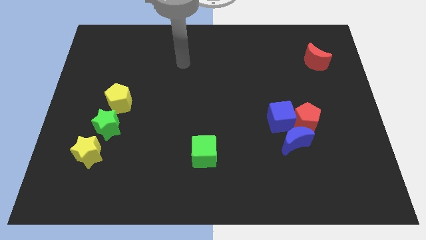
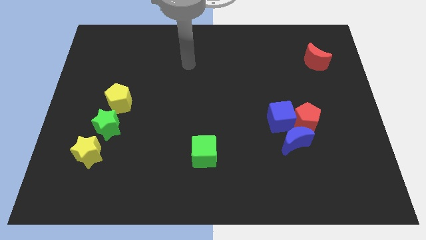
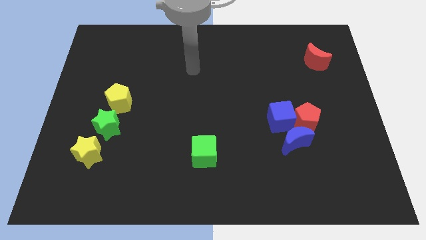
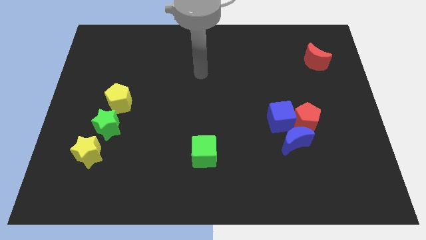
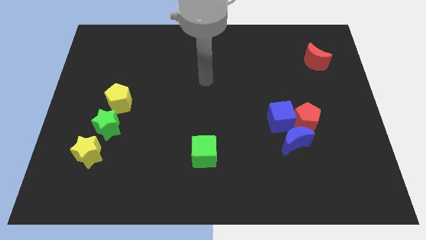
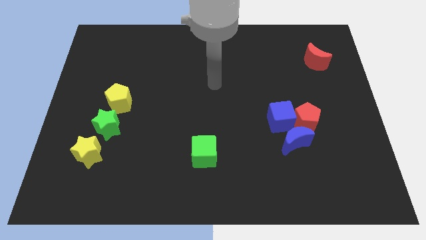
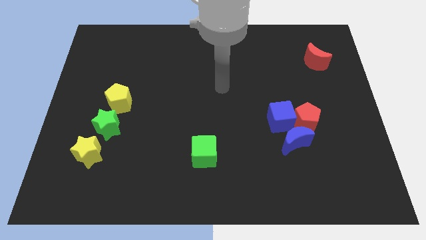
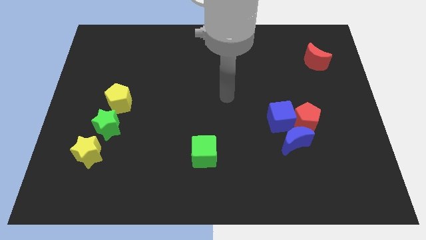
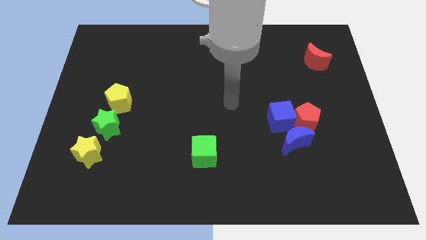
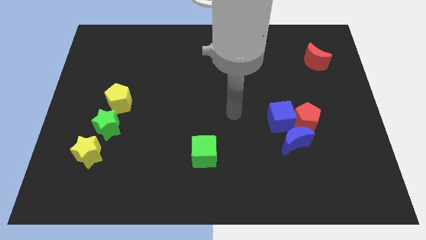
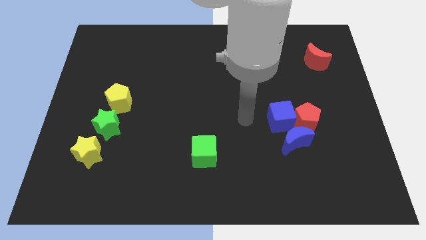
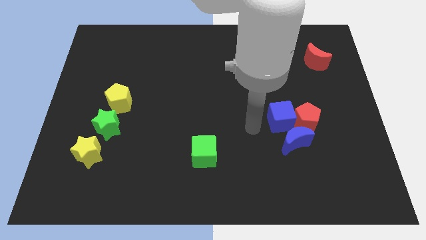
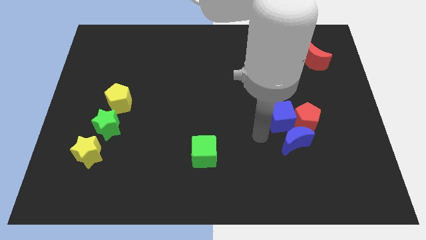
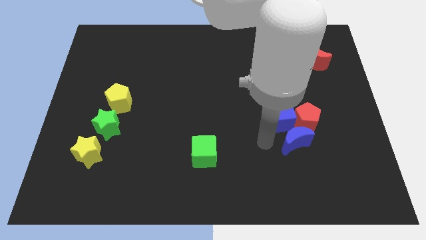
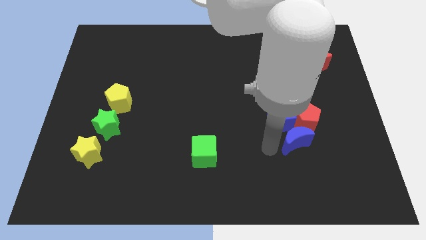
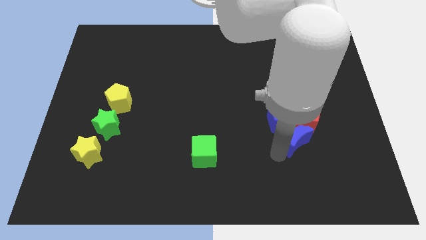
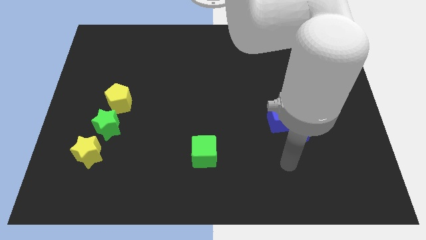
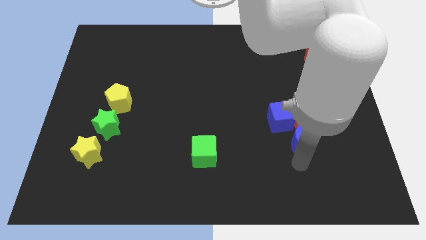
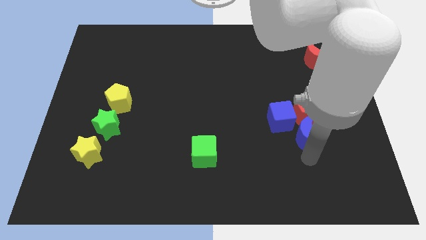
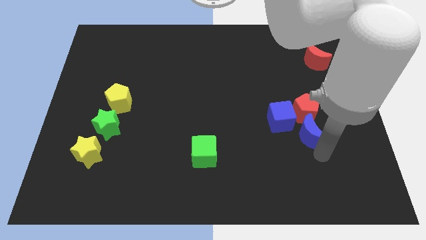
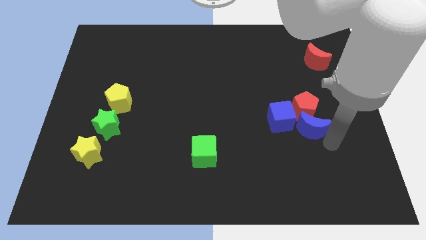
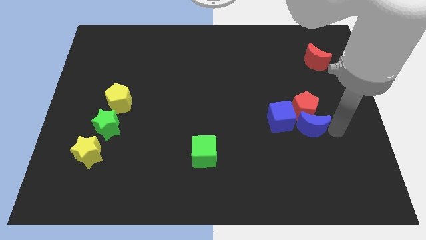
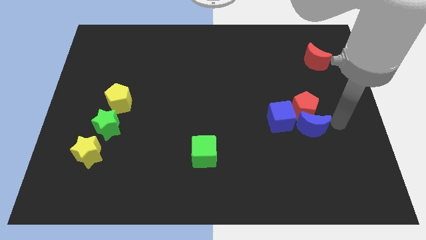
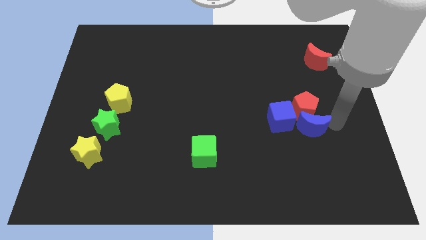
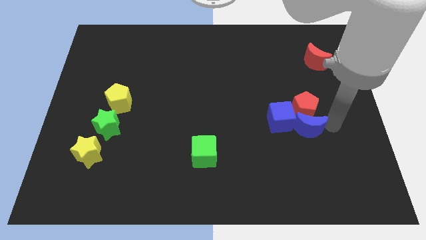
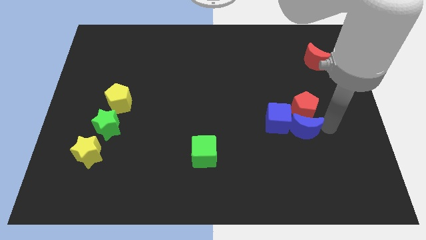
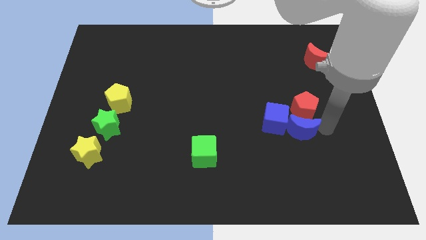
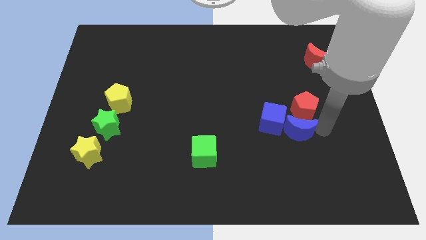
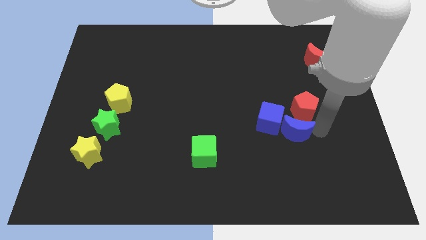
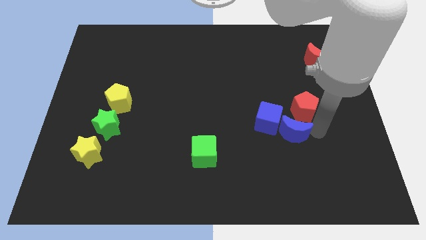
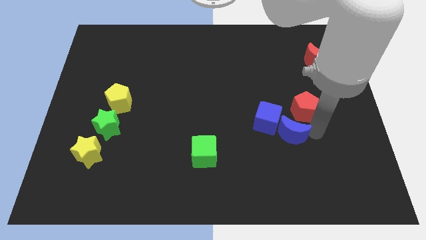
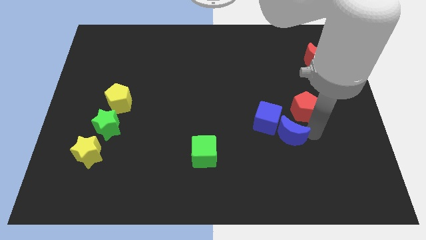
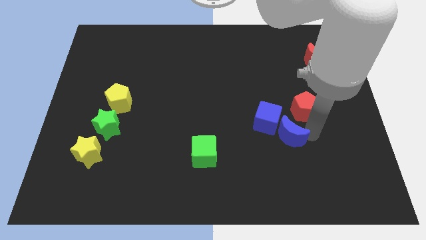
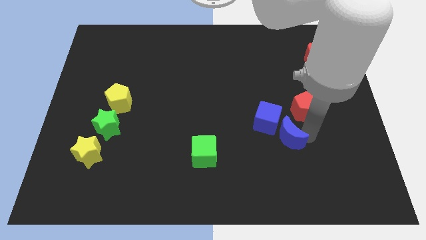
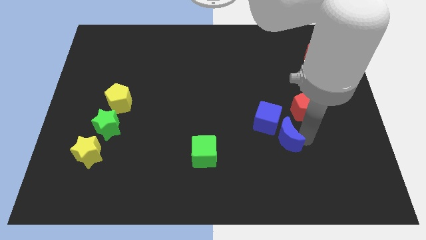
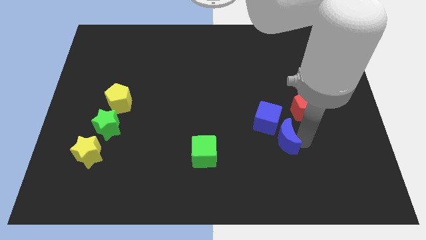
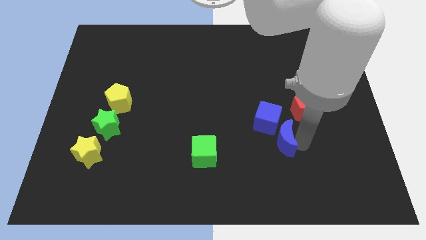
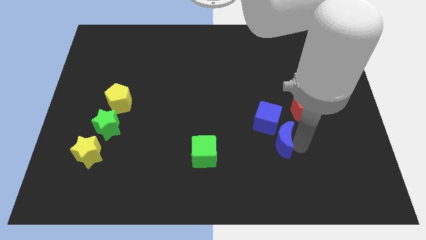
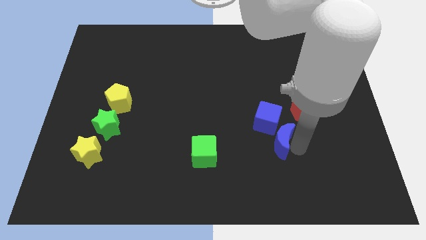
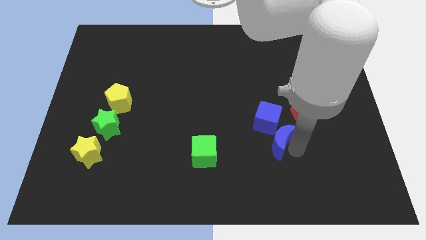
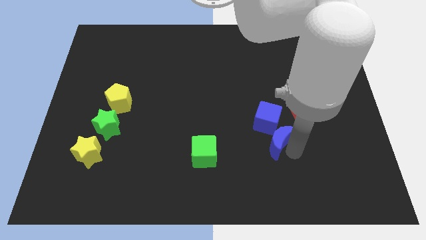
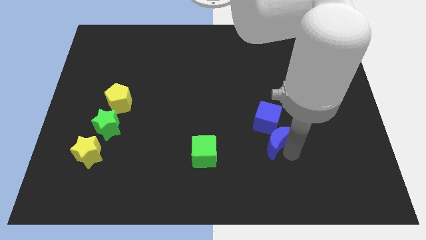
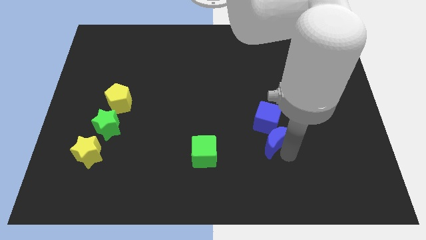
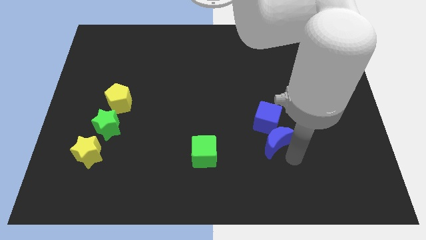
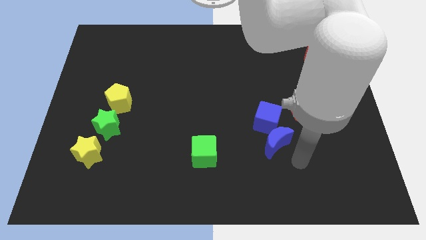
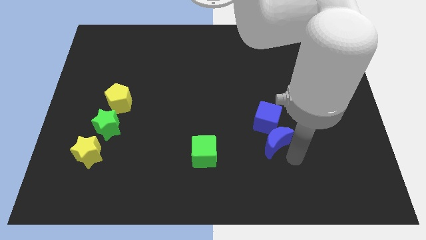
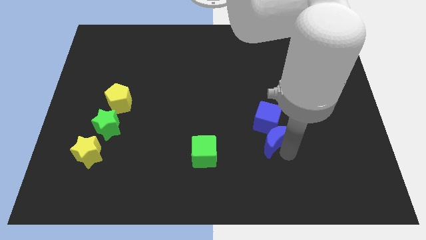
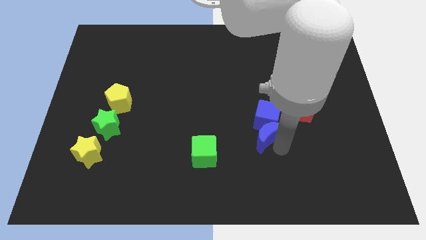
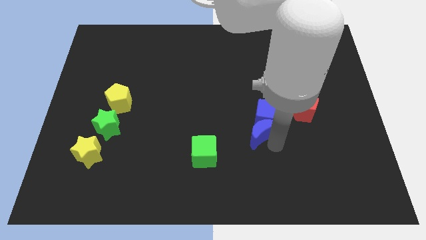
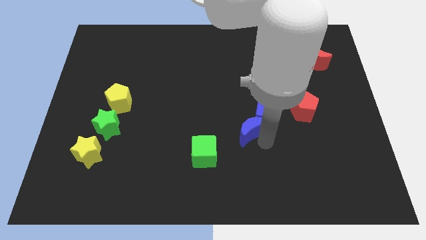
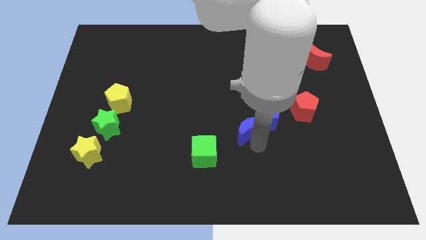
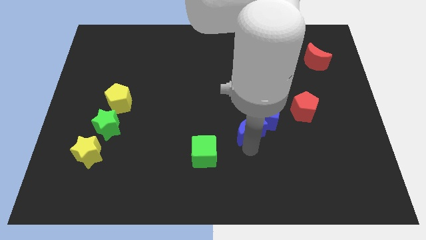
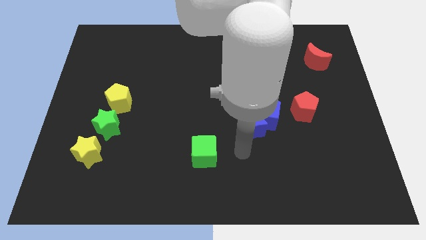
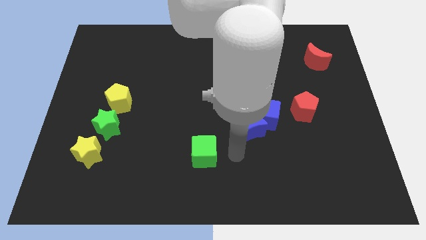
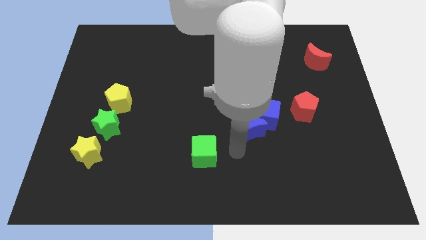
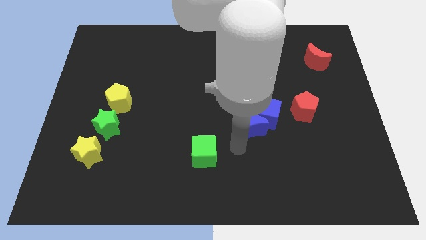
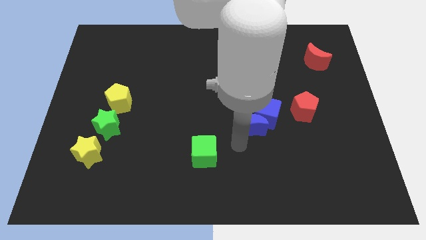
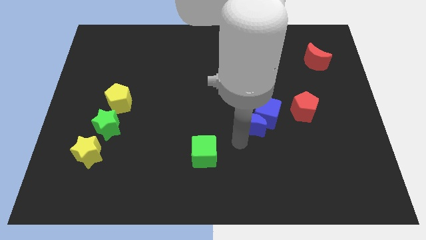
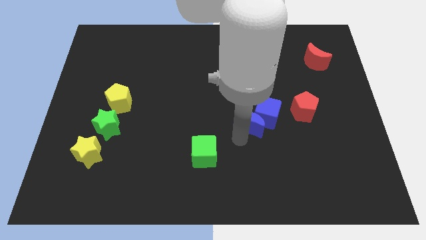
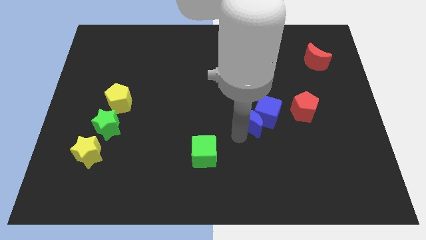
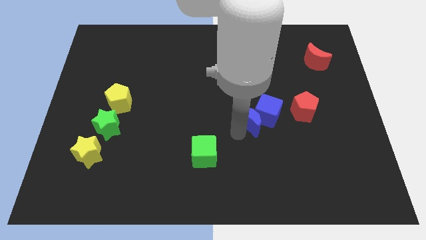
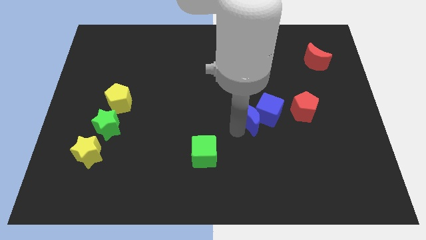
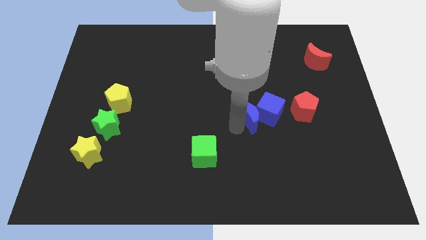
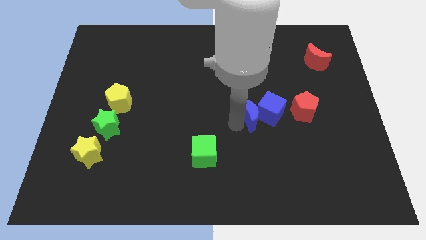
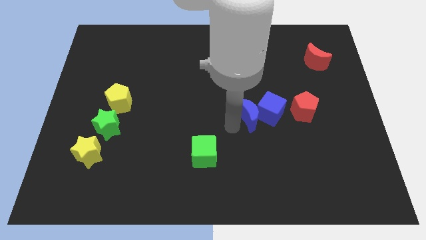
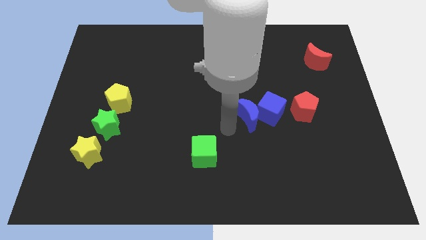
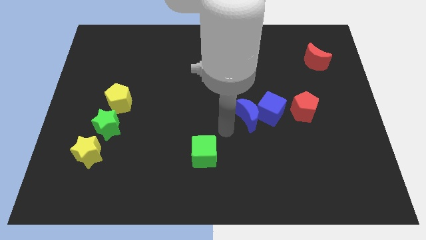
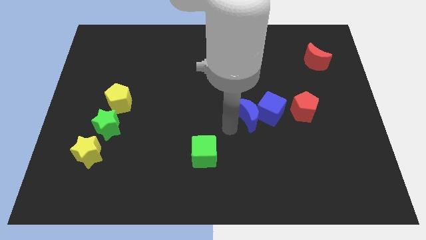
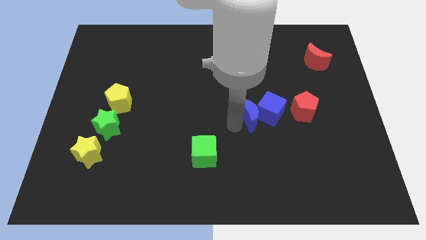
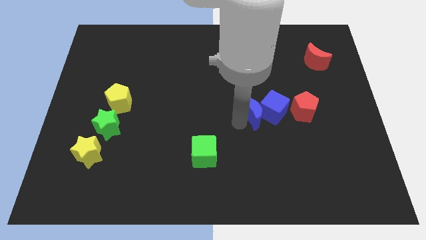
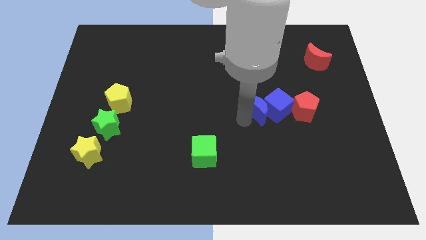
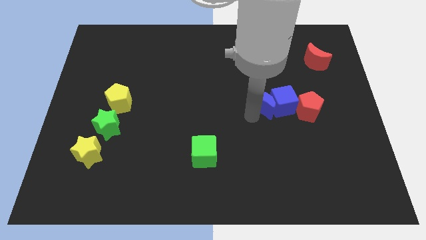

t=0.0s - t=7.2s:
push the blue moon upwards slightly

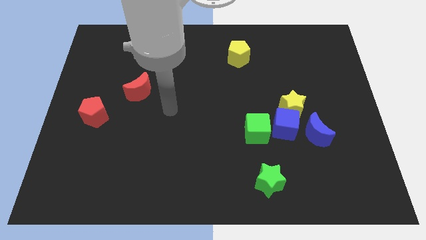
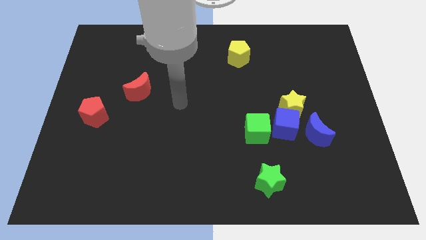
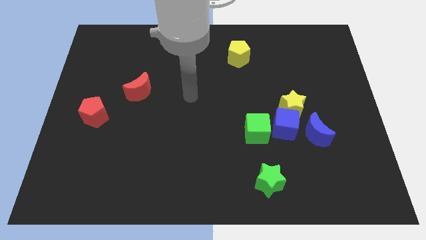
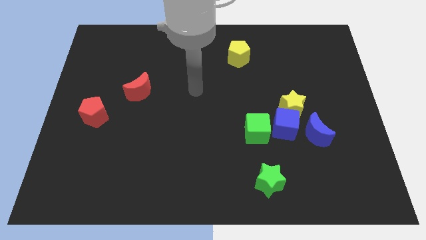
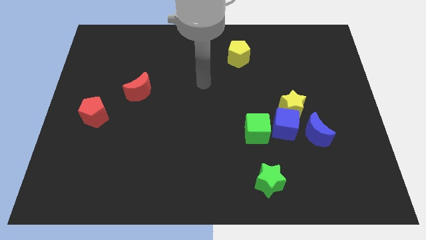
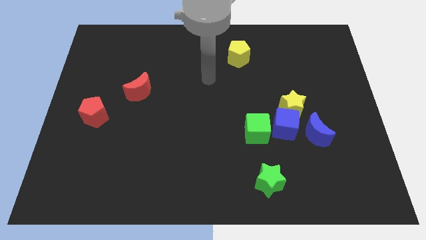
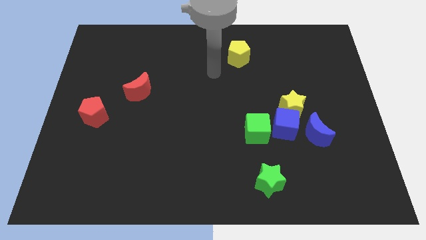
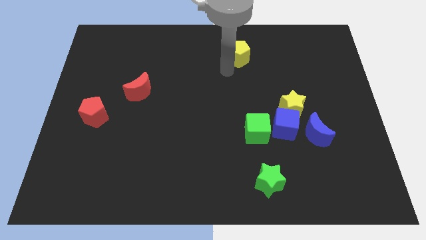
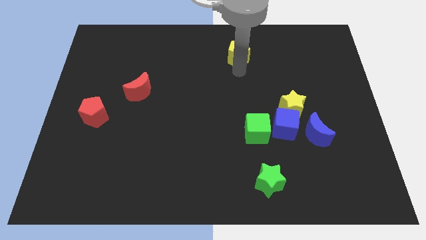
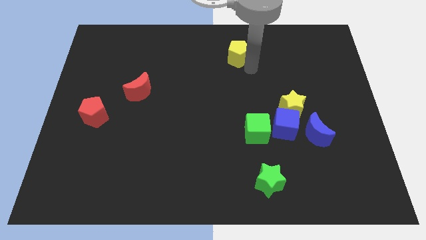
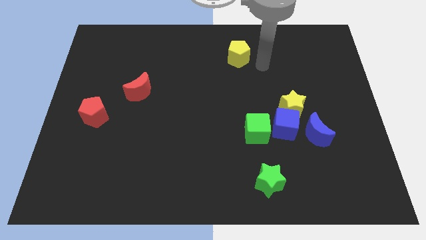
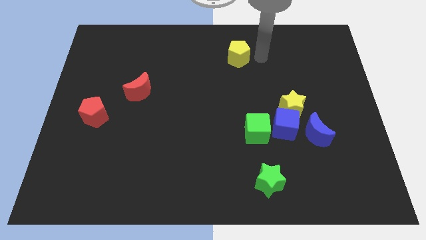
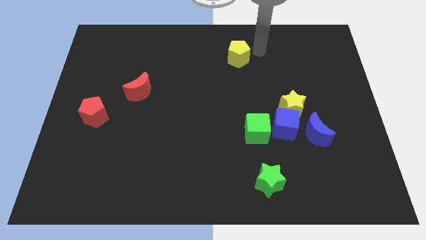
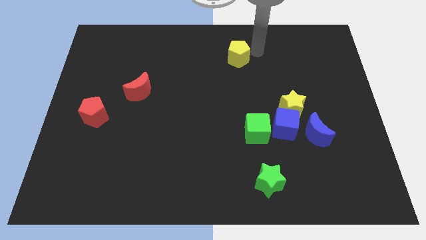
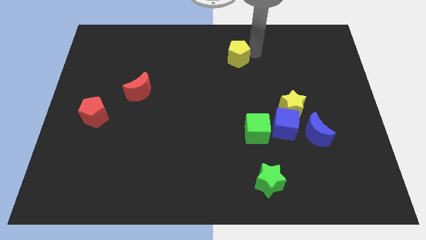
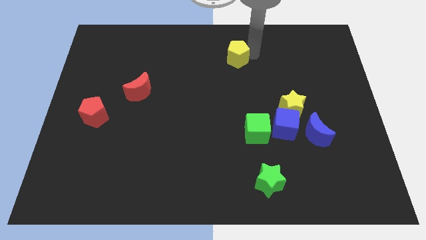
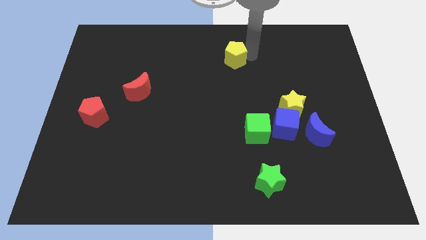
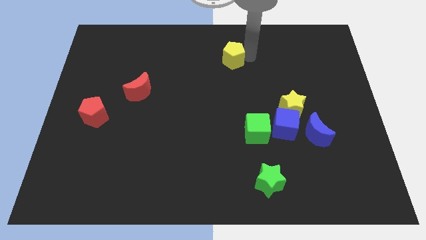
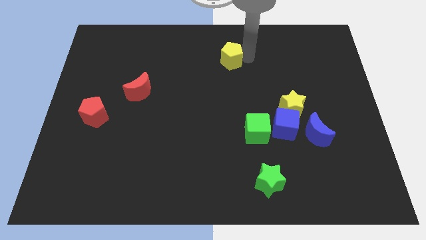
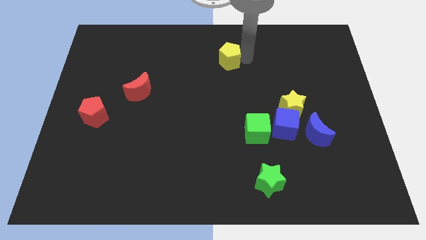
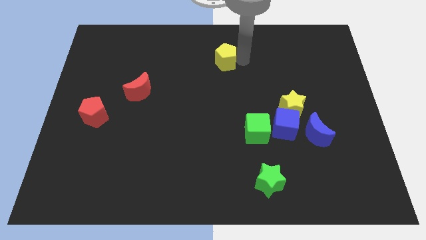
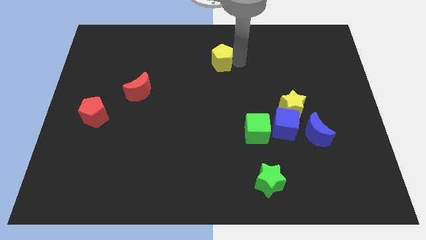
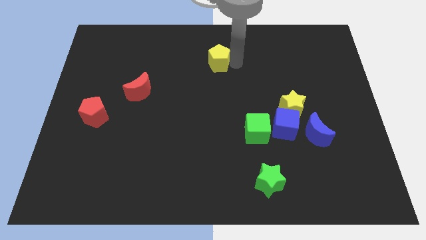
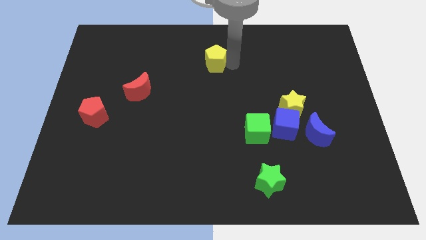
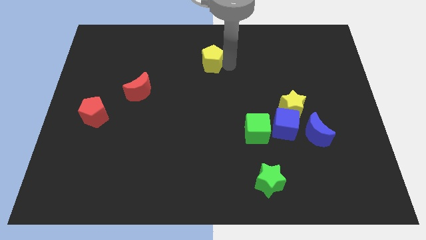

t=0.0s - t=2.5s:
move the yellow pentagon left a bit
